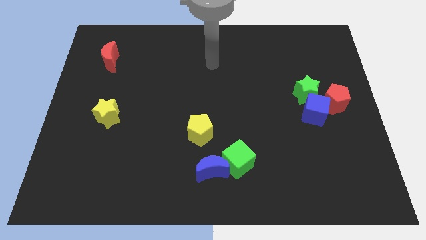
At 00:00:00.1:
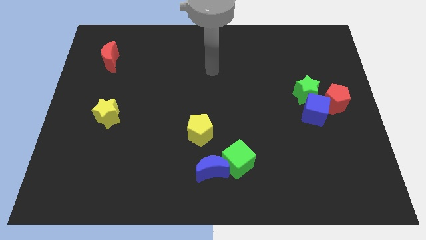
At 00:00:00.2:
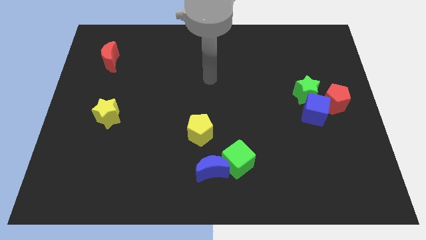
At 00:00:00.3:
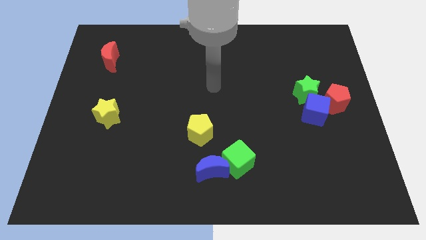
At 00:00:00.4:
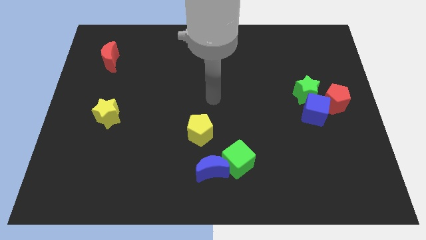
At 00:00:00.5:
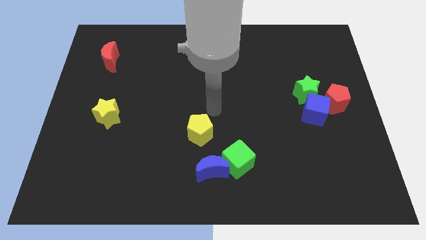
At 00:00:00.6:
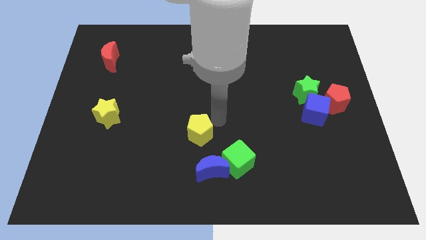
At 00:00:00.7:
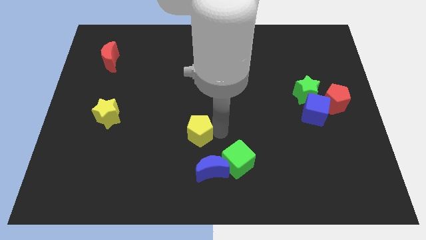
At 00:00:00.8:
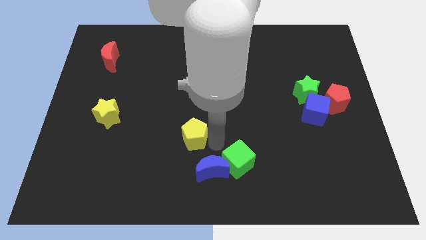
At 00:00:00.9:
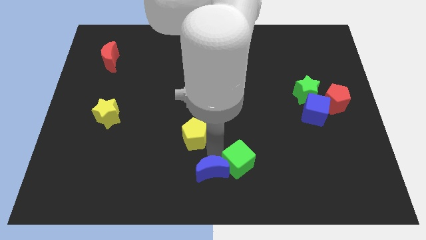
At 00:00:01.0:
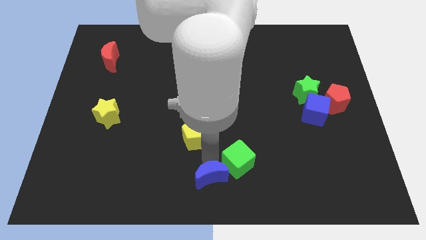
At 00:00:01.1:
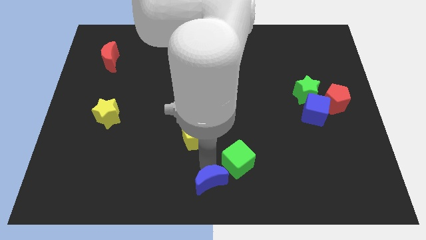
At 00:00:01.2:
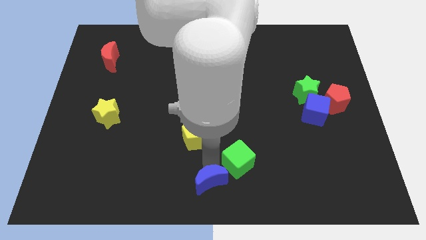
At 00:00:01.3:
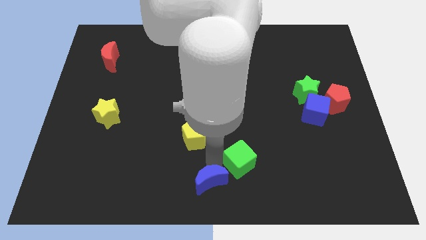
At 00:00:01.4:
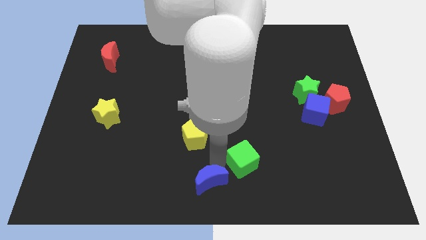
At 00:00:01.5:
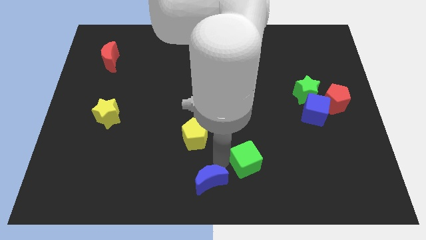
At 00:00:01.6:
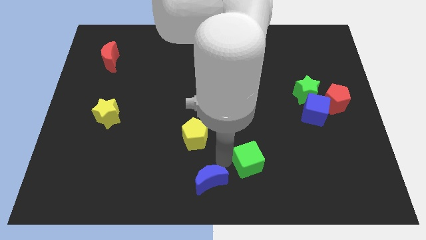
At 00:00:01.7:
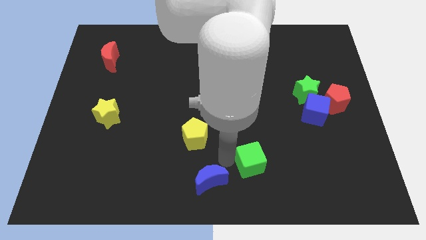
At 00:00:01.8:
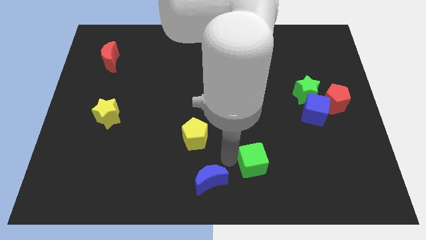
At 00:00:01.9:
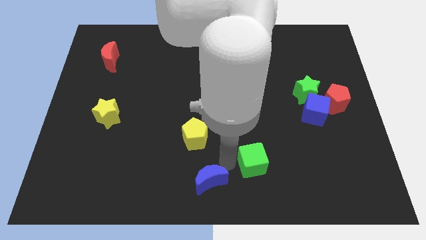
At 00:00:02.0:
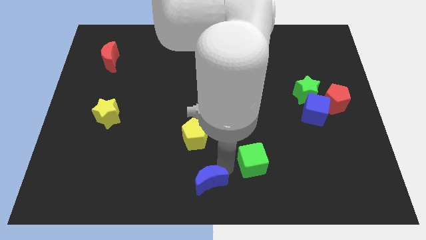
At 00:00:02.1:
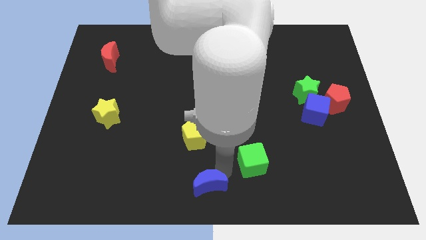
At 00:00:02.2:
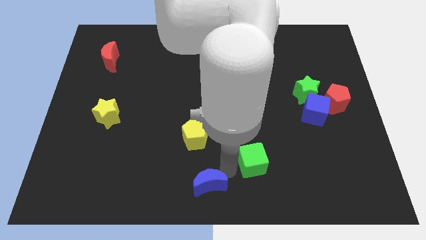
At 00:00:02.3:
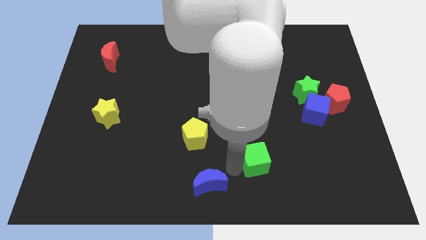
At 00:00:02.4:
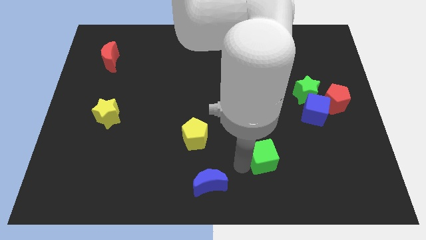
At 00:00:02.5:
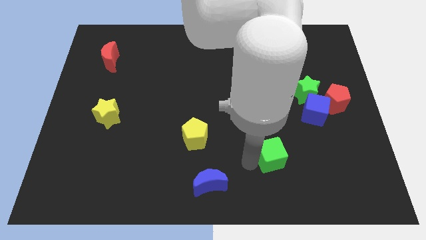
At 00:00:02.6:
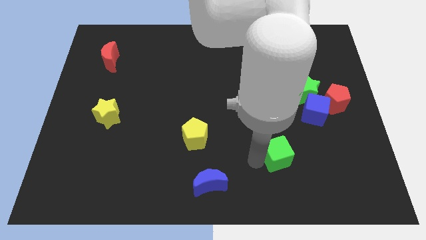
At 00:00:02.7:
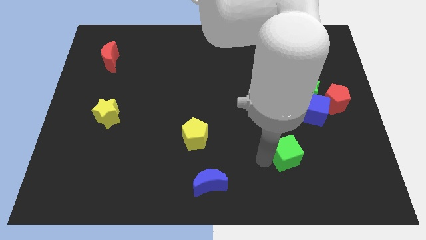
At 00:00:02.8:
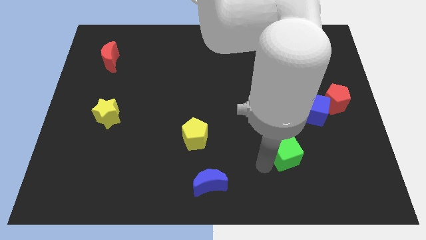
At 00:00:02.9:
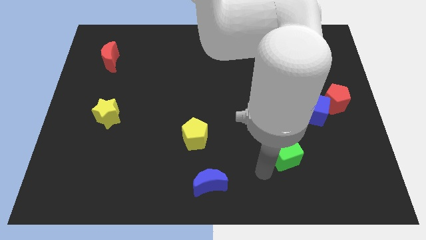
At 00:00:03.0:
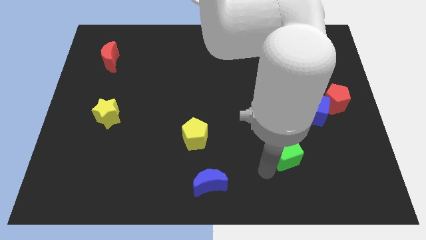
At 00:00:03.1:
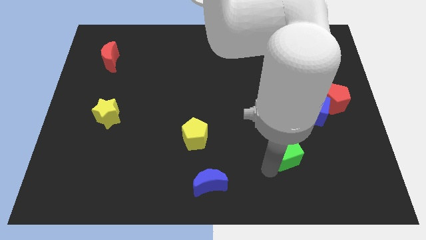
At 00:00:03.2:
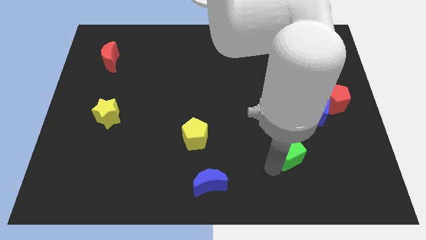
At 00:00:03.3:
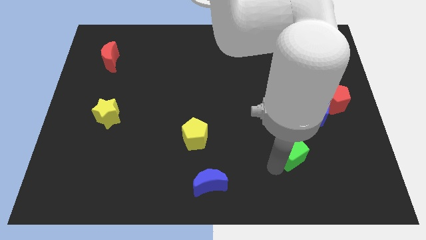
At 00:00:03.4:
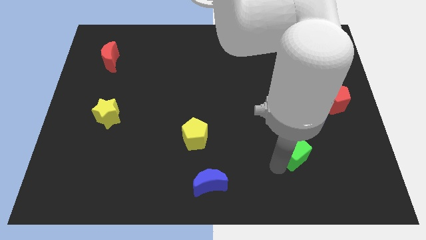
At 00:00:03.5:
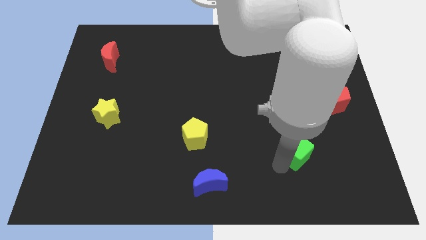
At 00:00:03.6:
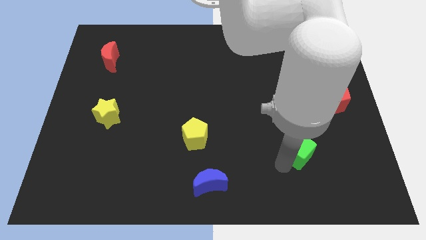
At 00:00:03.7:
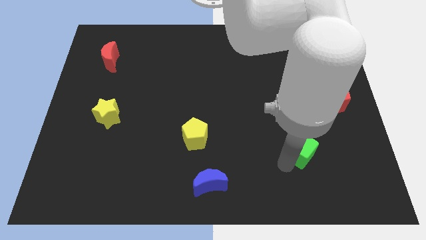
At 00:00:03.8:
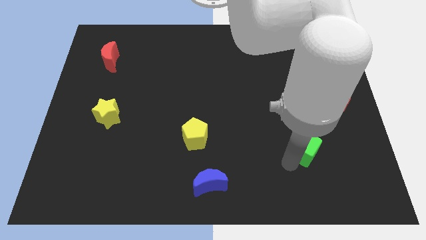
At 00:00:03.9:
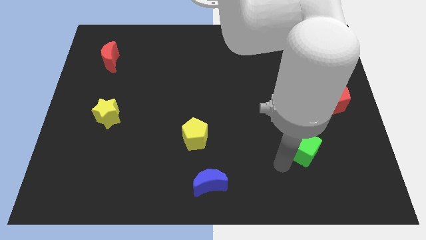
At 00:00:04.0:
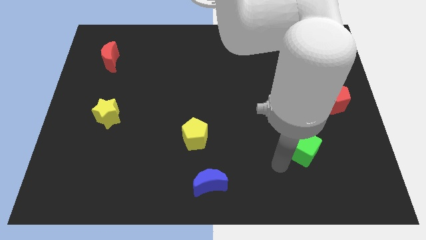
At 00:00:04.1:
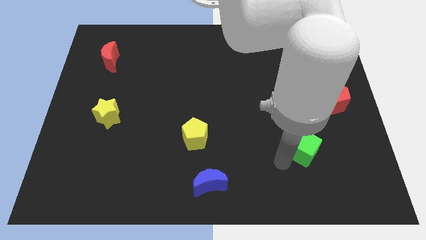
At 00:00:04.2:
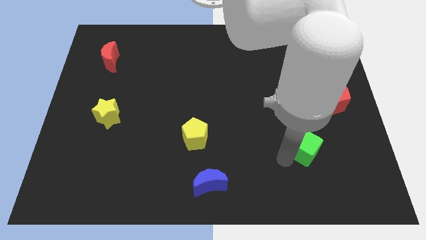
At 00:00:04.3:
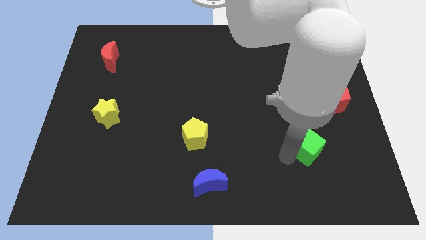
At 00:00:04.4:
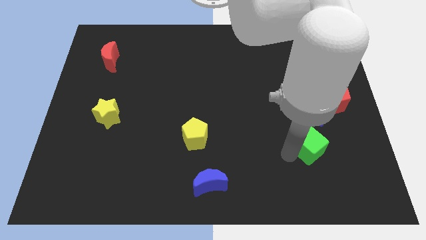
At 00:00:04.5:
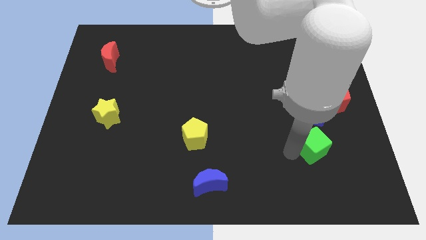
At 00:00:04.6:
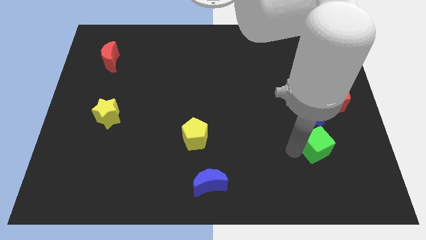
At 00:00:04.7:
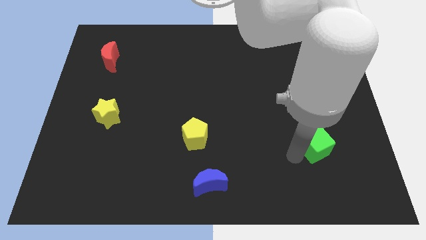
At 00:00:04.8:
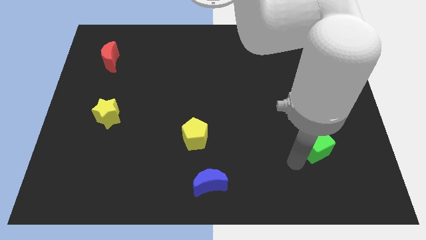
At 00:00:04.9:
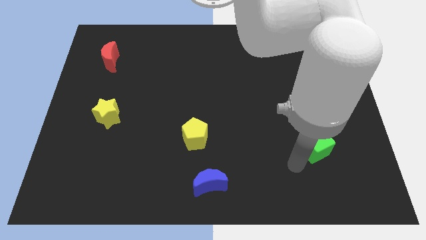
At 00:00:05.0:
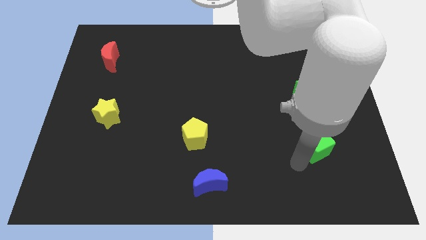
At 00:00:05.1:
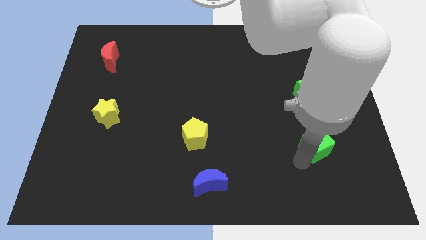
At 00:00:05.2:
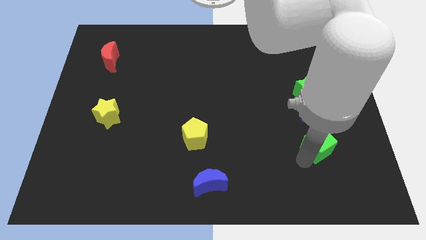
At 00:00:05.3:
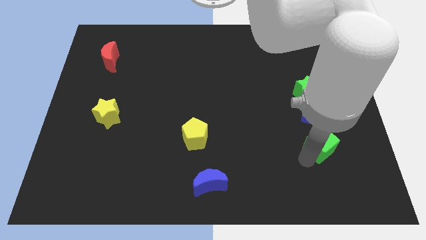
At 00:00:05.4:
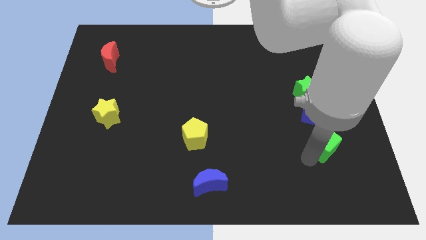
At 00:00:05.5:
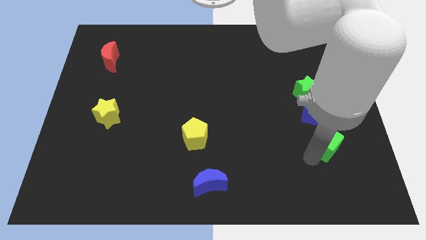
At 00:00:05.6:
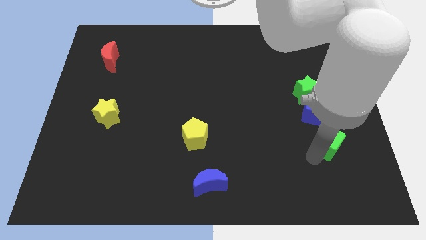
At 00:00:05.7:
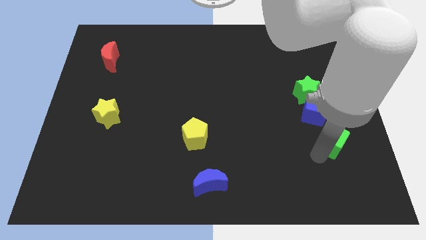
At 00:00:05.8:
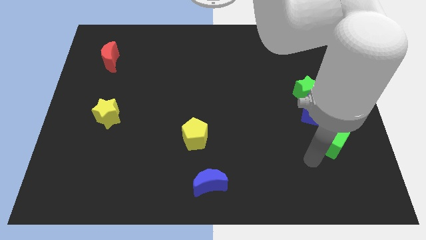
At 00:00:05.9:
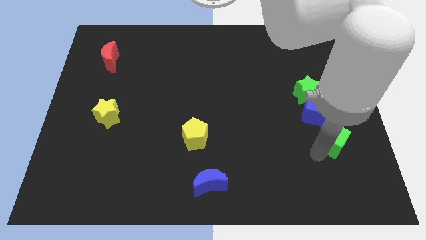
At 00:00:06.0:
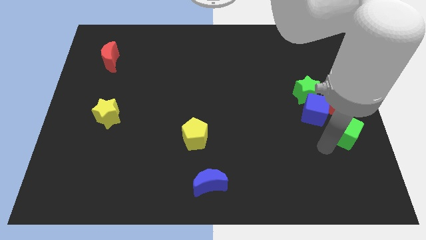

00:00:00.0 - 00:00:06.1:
push the green cube to the right side
